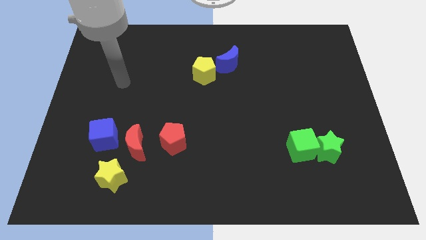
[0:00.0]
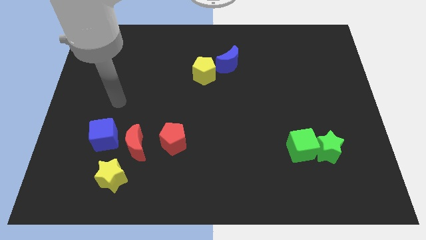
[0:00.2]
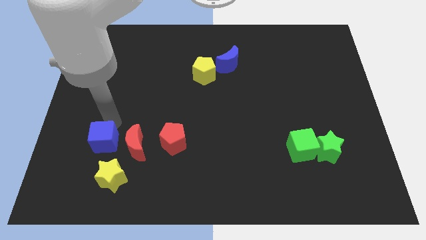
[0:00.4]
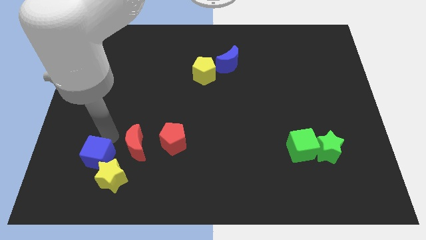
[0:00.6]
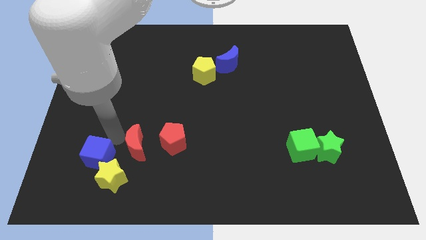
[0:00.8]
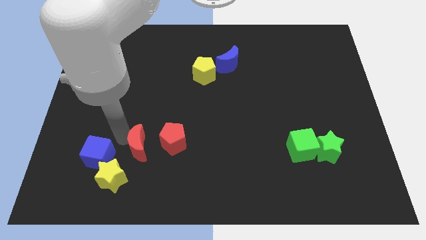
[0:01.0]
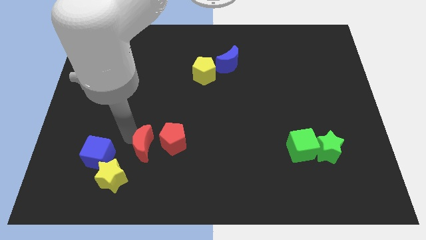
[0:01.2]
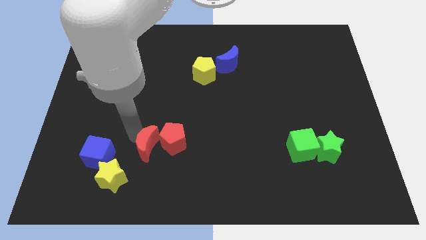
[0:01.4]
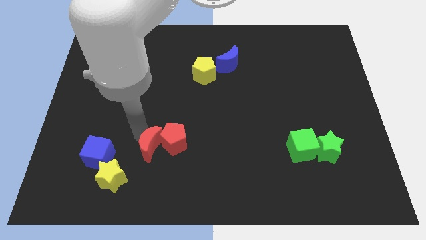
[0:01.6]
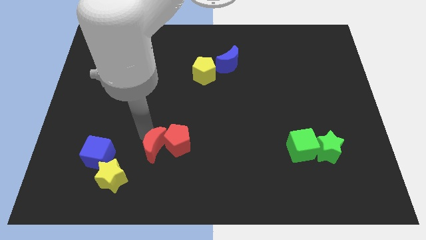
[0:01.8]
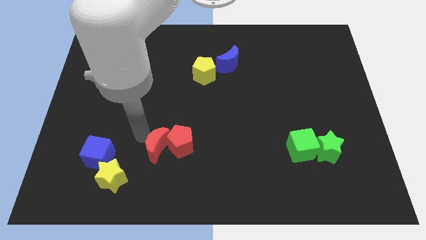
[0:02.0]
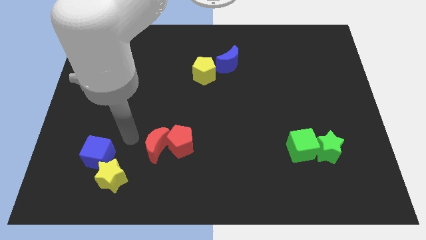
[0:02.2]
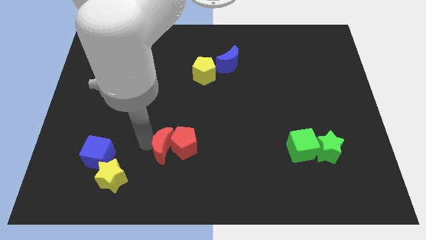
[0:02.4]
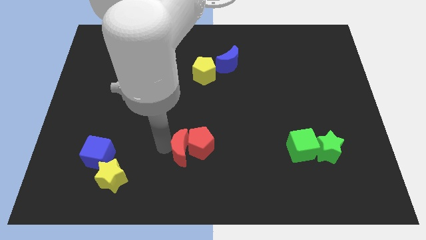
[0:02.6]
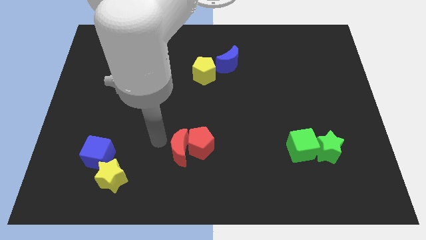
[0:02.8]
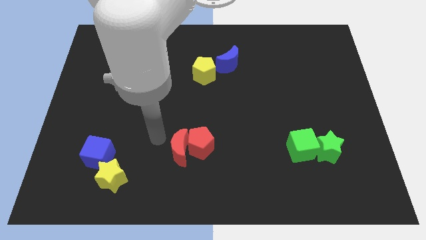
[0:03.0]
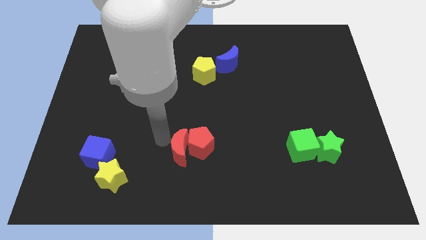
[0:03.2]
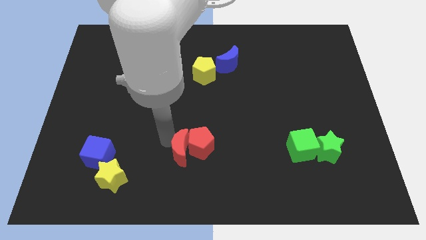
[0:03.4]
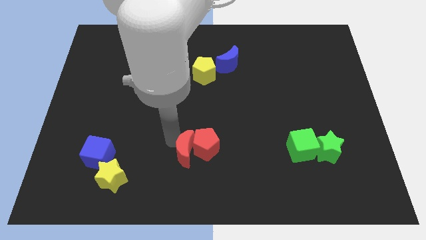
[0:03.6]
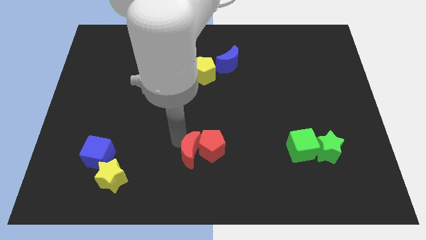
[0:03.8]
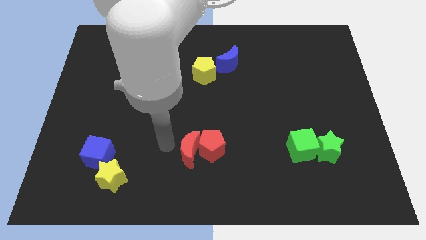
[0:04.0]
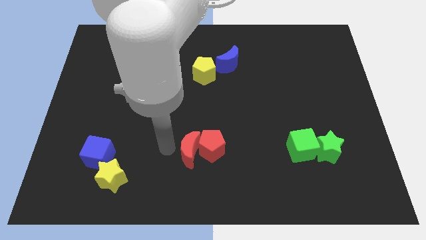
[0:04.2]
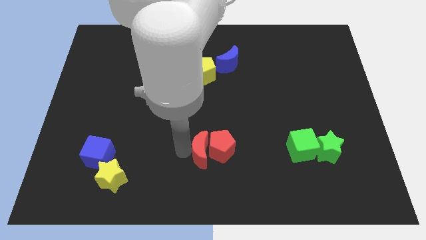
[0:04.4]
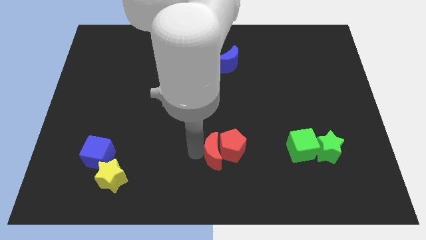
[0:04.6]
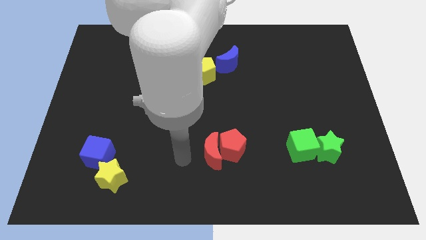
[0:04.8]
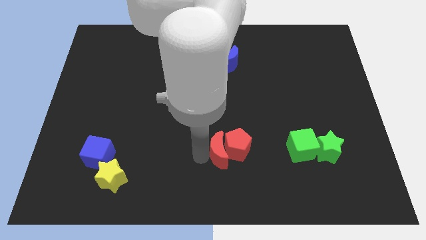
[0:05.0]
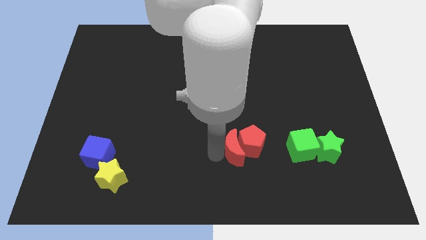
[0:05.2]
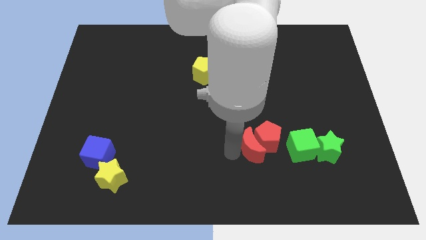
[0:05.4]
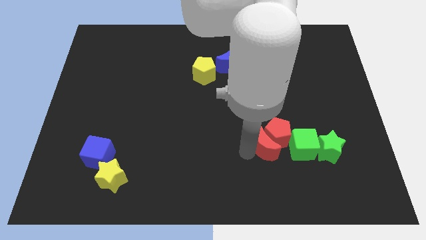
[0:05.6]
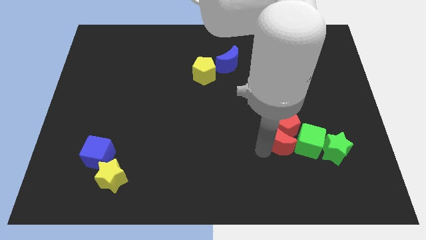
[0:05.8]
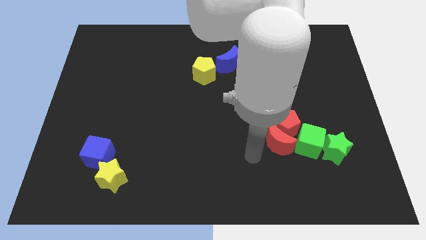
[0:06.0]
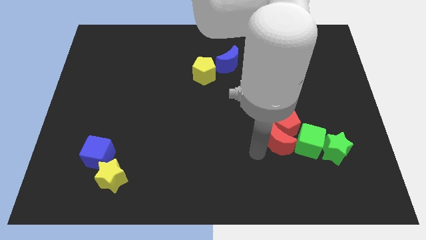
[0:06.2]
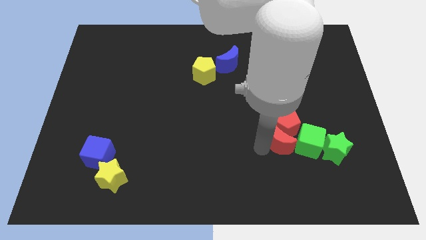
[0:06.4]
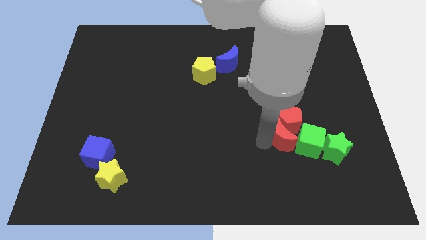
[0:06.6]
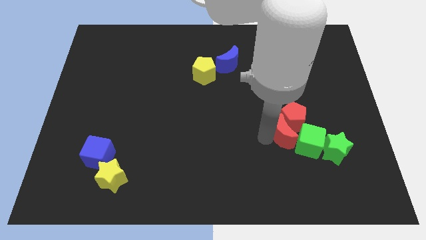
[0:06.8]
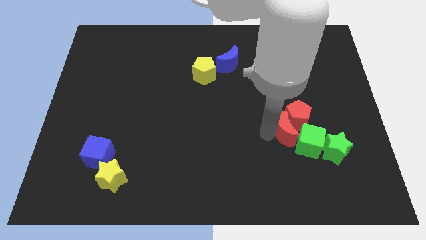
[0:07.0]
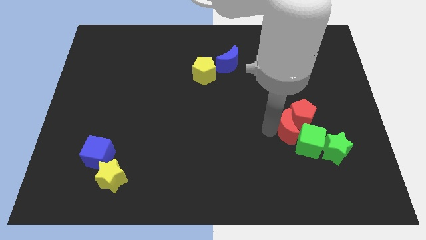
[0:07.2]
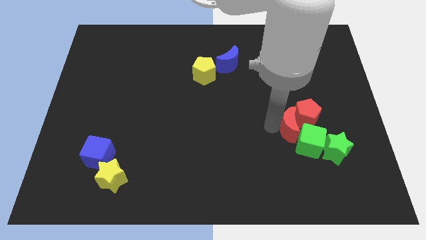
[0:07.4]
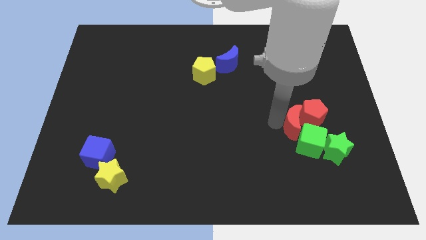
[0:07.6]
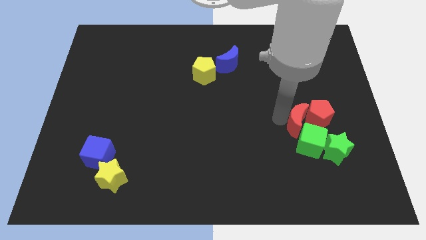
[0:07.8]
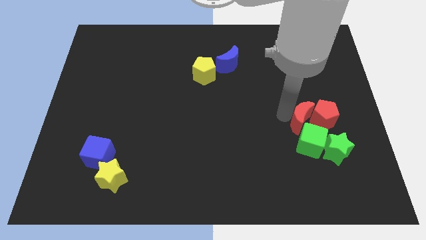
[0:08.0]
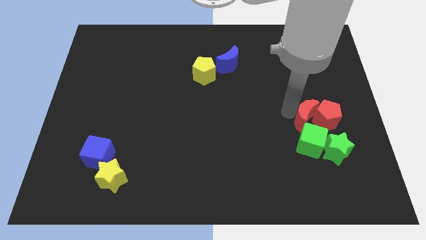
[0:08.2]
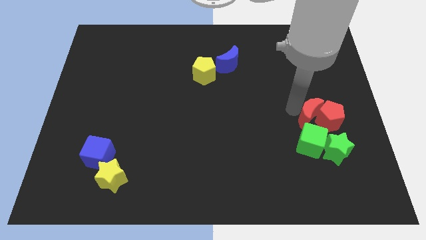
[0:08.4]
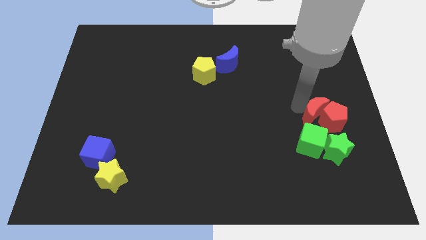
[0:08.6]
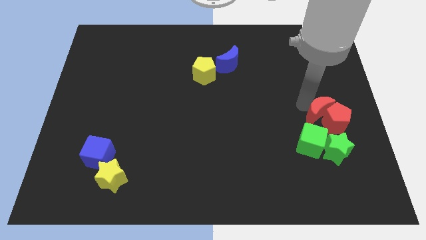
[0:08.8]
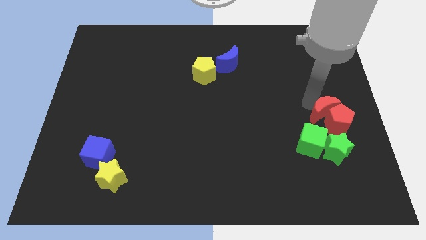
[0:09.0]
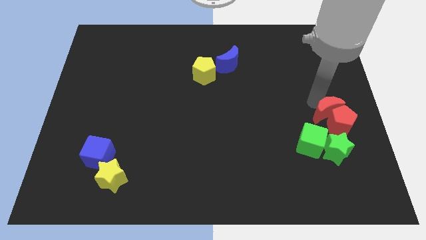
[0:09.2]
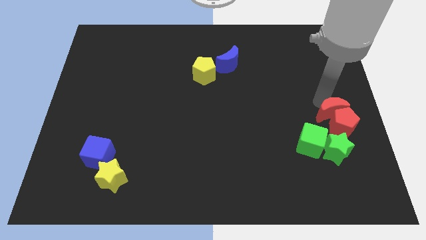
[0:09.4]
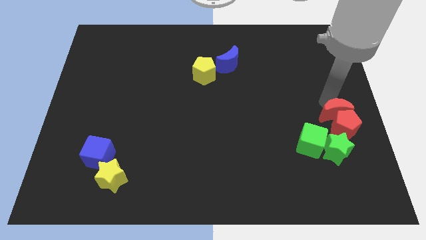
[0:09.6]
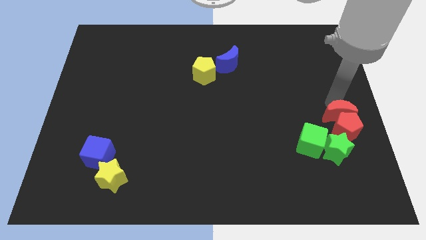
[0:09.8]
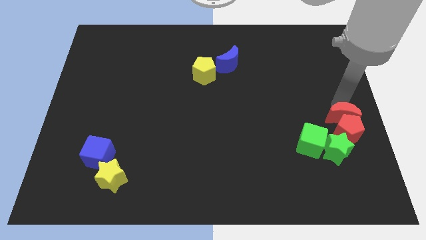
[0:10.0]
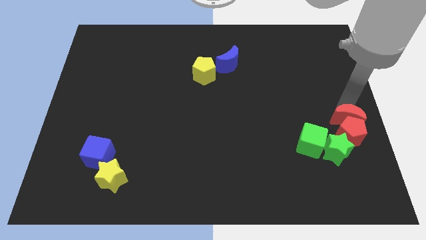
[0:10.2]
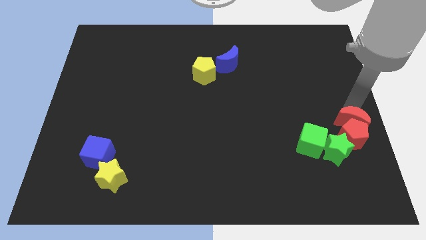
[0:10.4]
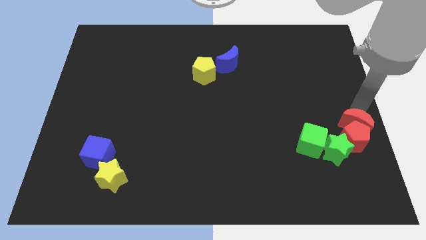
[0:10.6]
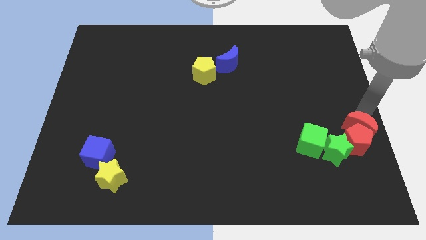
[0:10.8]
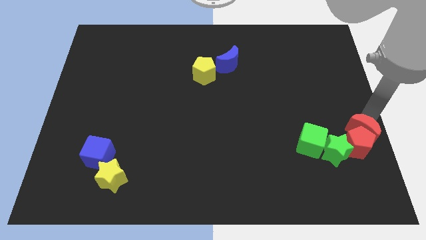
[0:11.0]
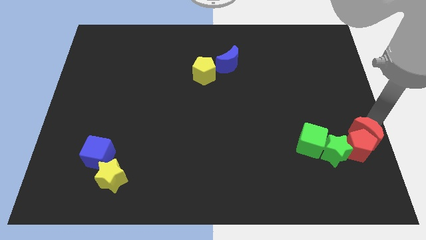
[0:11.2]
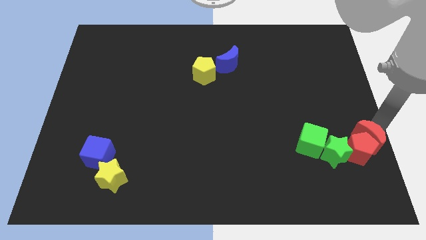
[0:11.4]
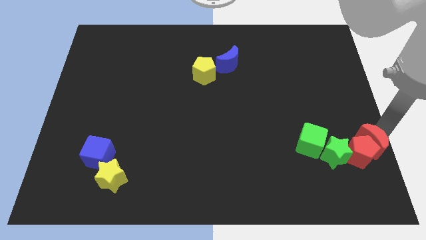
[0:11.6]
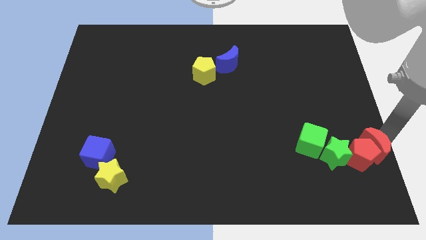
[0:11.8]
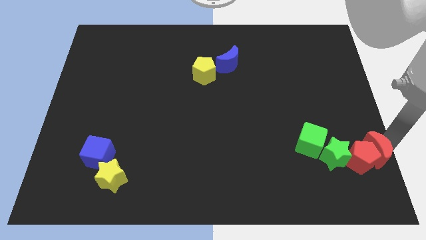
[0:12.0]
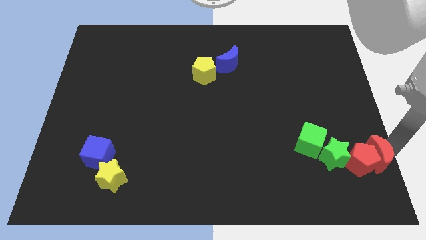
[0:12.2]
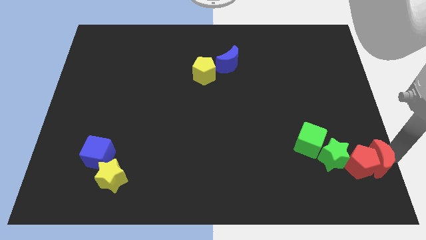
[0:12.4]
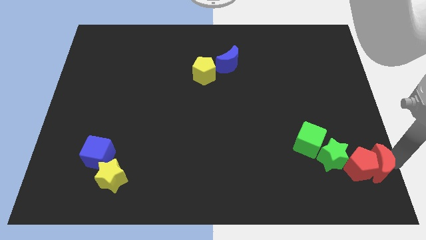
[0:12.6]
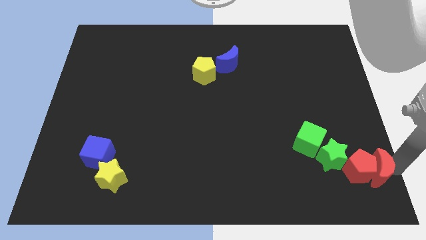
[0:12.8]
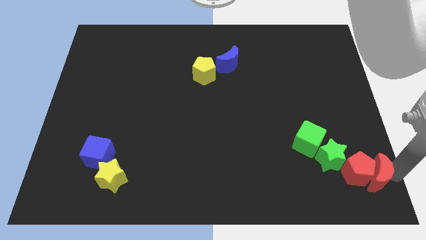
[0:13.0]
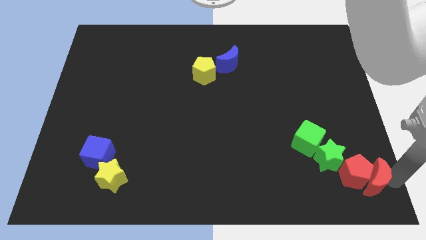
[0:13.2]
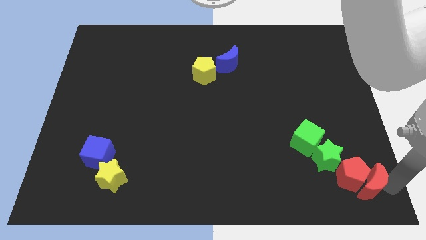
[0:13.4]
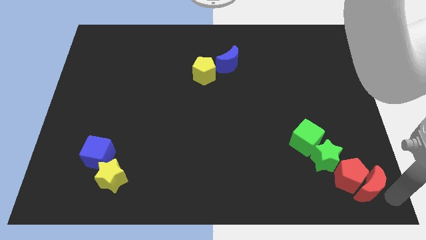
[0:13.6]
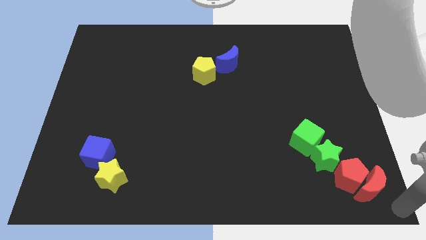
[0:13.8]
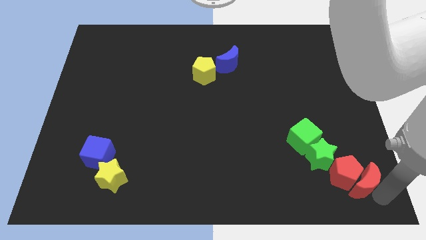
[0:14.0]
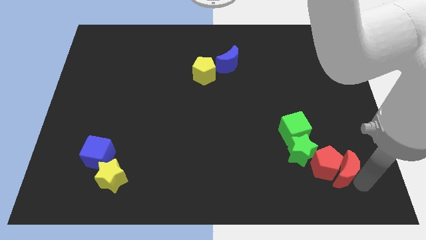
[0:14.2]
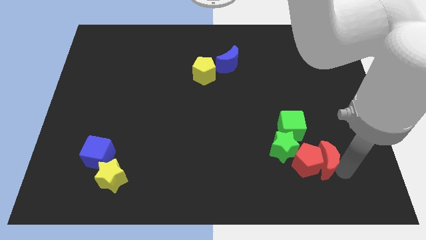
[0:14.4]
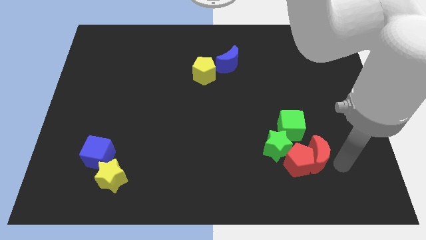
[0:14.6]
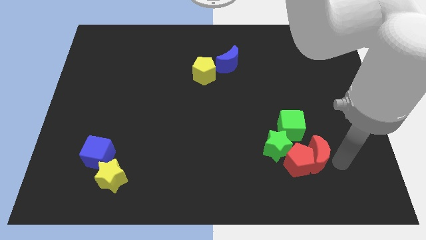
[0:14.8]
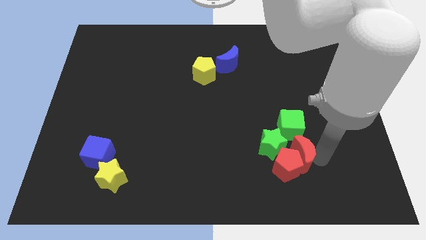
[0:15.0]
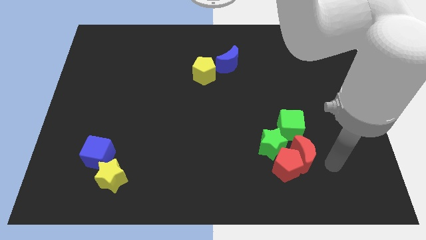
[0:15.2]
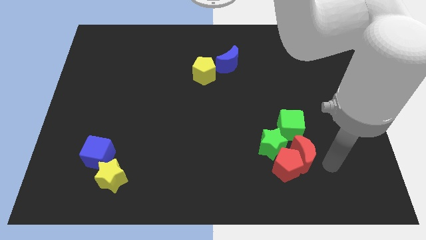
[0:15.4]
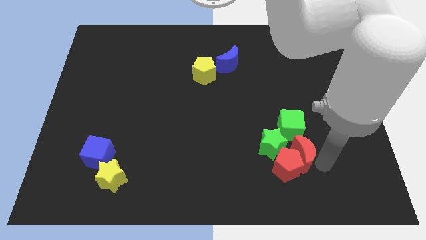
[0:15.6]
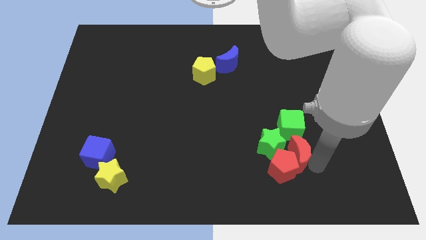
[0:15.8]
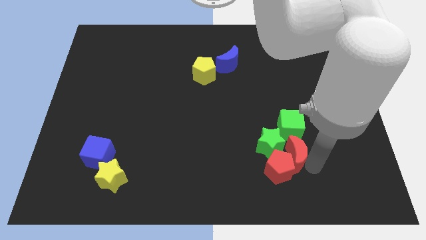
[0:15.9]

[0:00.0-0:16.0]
put the red moon close to the green star
